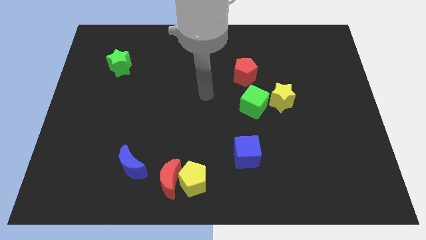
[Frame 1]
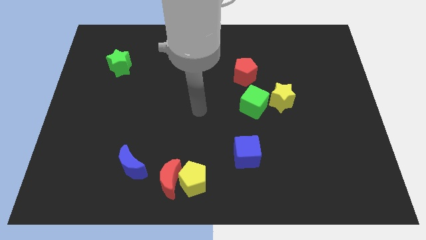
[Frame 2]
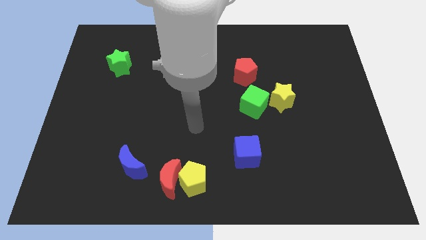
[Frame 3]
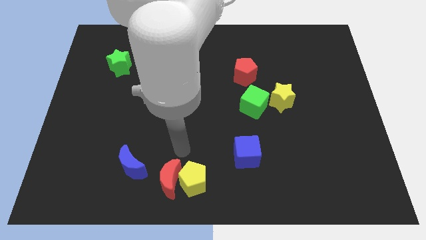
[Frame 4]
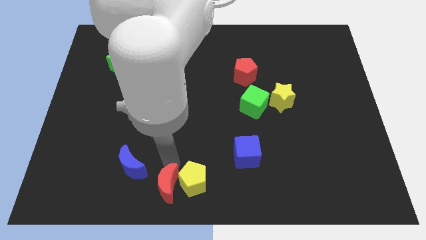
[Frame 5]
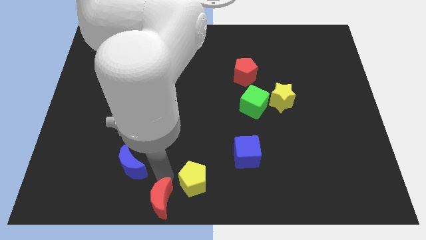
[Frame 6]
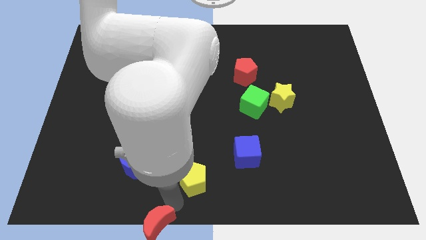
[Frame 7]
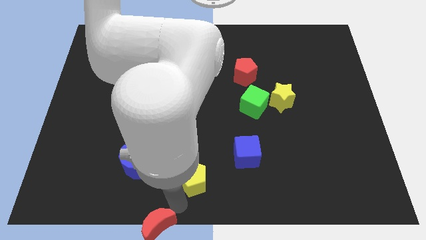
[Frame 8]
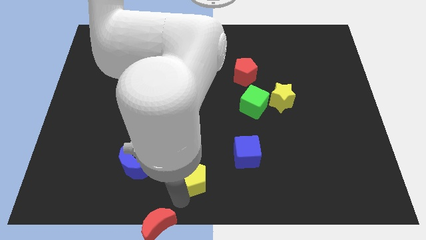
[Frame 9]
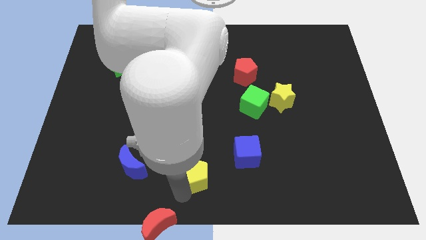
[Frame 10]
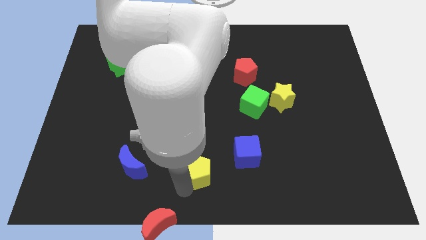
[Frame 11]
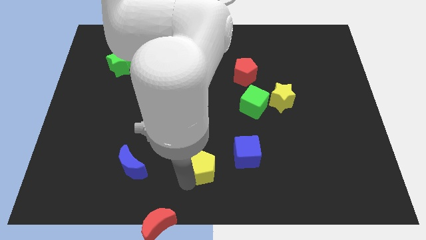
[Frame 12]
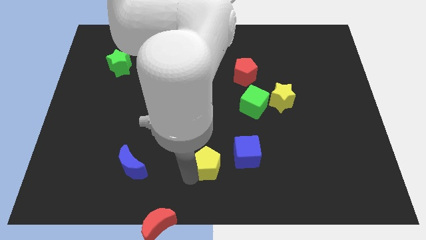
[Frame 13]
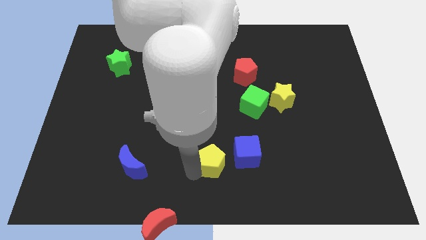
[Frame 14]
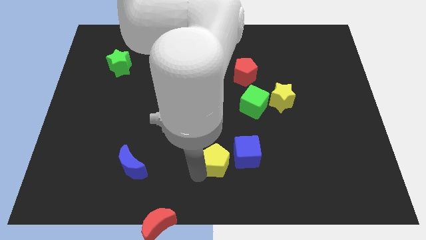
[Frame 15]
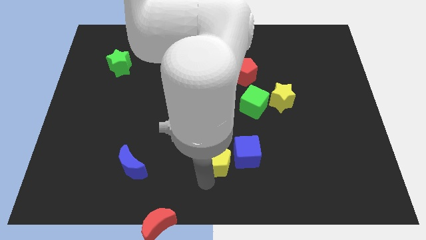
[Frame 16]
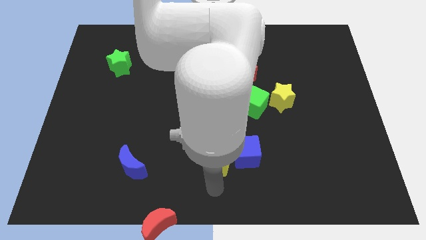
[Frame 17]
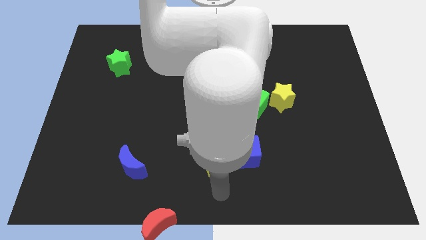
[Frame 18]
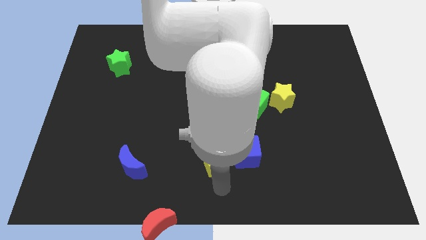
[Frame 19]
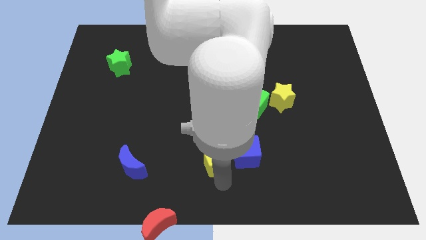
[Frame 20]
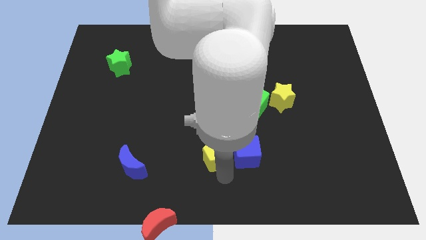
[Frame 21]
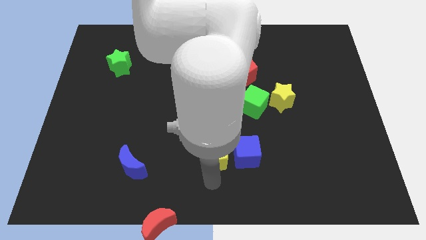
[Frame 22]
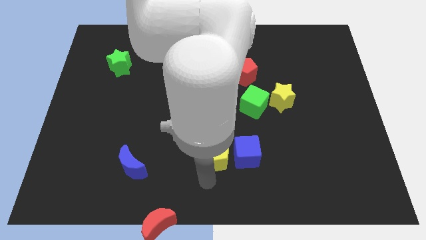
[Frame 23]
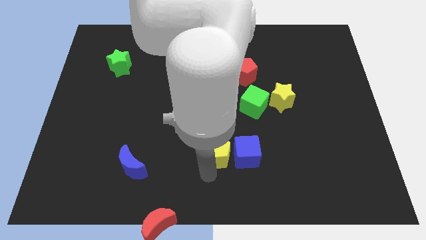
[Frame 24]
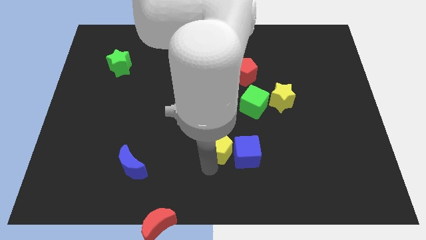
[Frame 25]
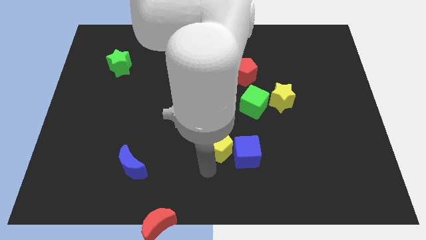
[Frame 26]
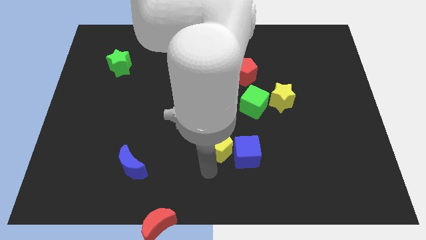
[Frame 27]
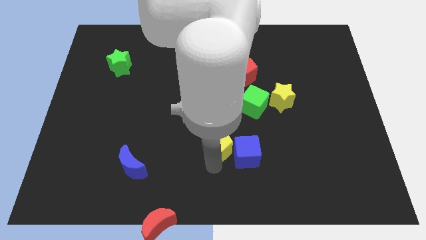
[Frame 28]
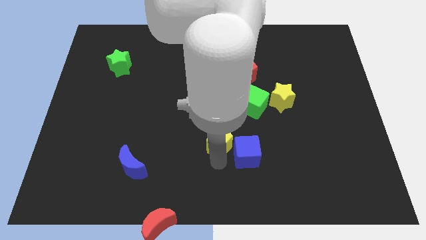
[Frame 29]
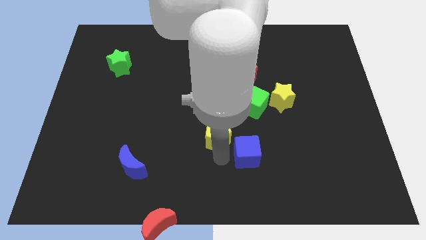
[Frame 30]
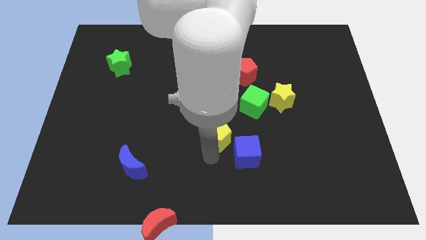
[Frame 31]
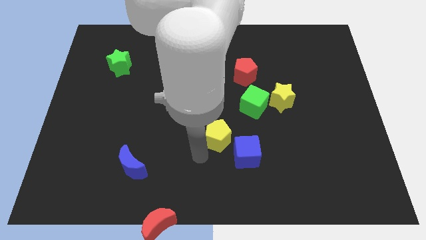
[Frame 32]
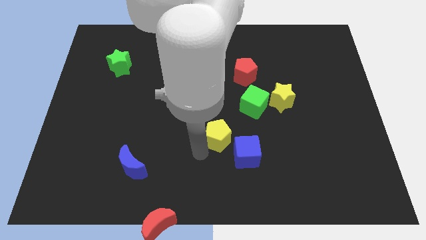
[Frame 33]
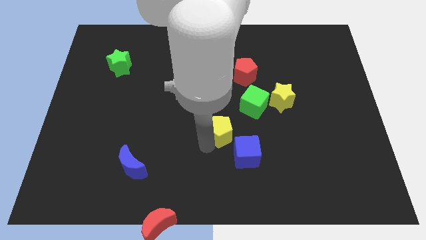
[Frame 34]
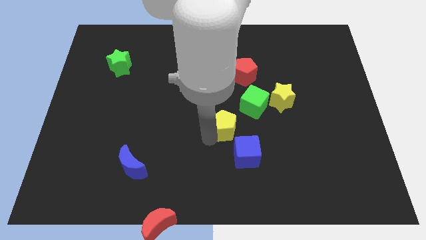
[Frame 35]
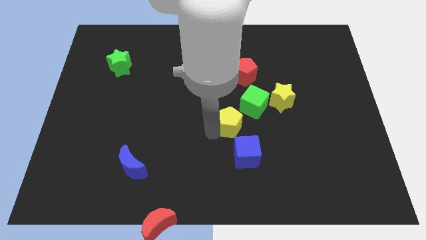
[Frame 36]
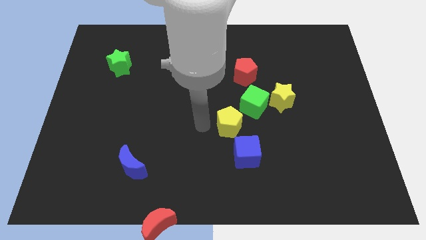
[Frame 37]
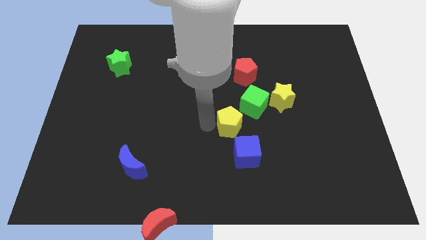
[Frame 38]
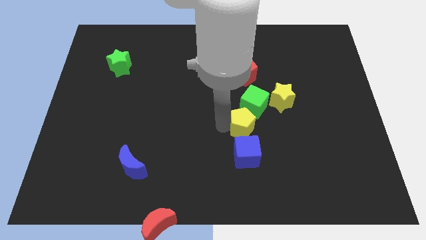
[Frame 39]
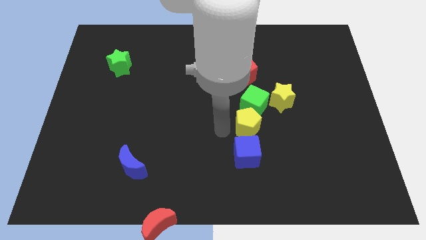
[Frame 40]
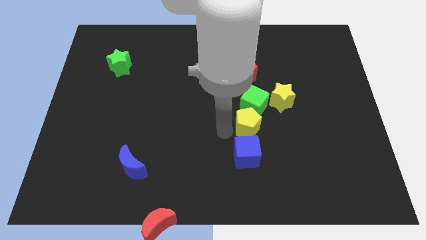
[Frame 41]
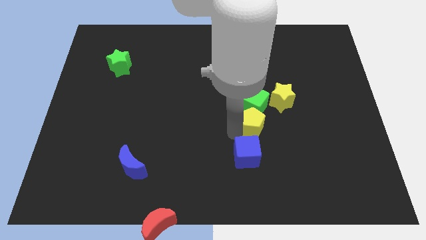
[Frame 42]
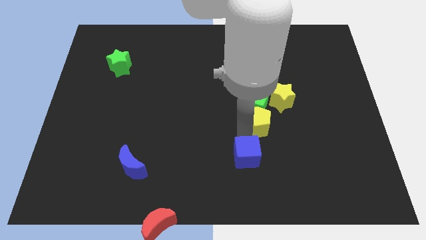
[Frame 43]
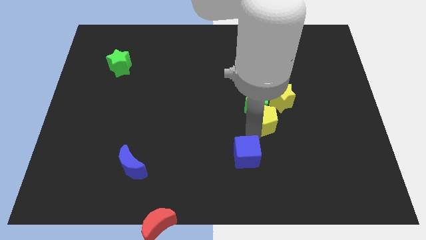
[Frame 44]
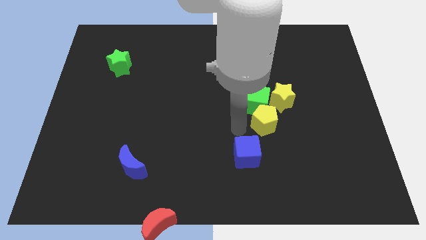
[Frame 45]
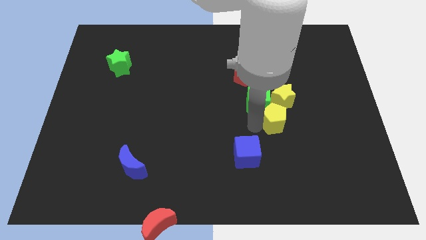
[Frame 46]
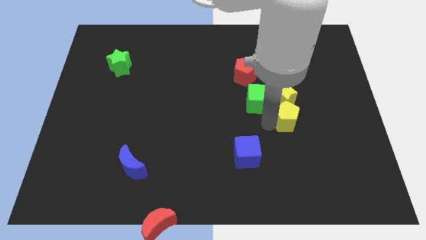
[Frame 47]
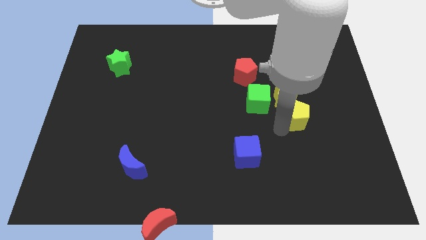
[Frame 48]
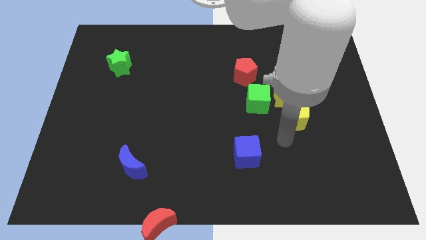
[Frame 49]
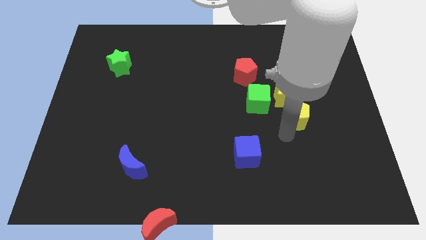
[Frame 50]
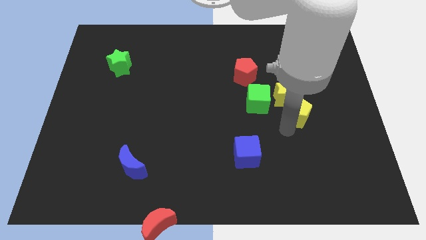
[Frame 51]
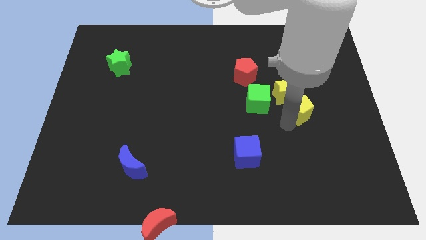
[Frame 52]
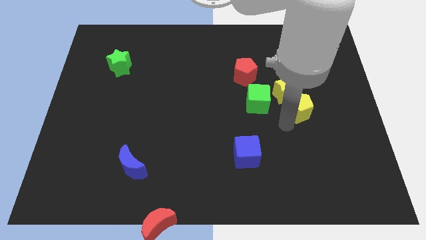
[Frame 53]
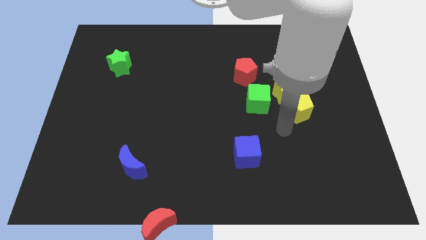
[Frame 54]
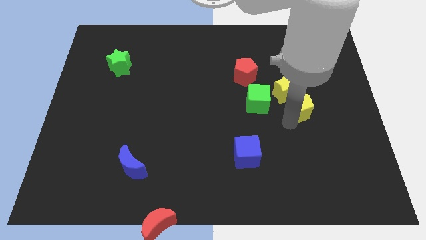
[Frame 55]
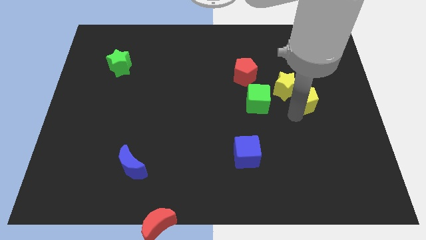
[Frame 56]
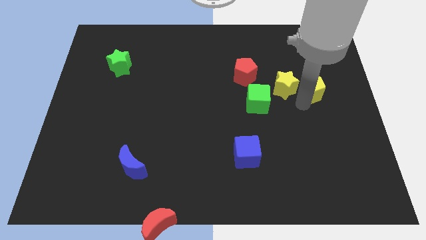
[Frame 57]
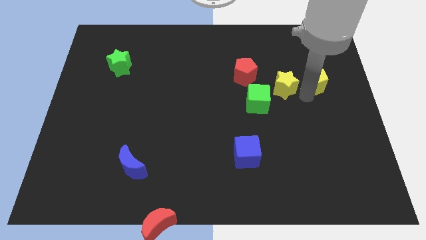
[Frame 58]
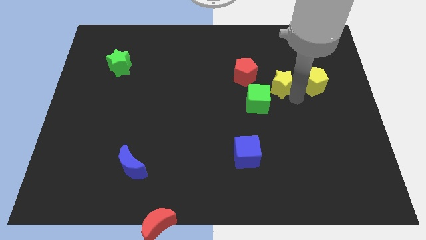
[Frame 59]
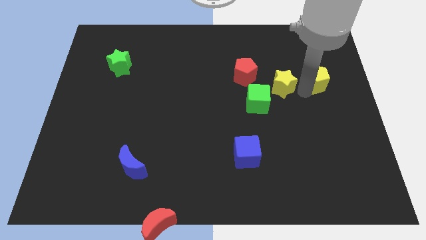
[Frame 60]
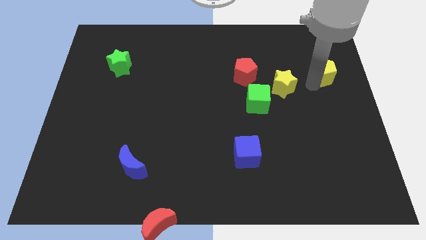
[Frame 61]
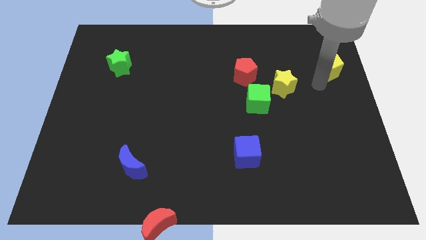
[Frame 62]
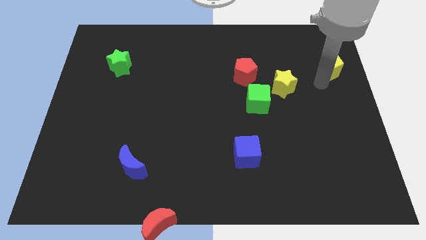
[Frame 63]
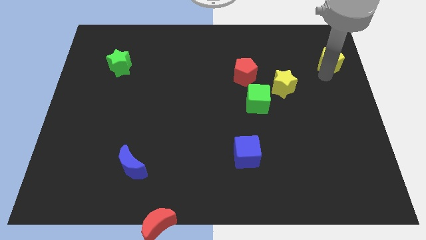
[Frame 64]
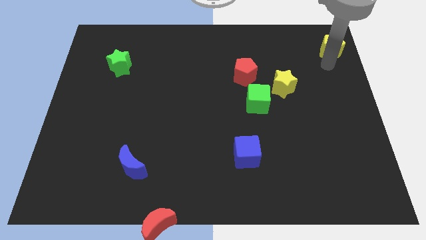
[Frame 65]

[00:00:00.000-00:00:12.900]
push the yellow pentagon to the top right
